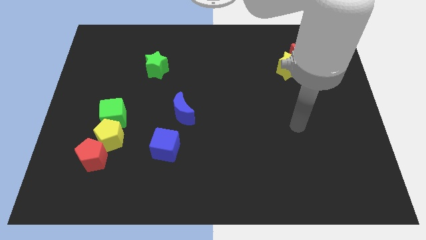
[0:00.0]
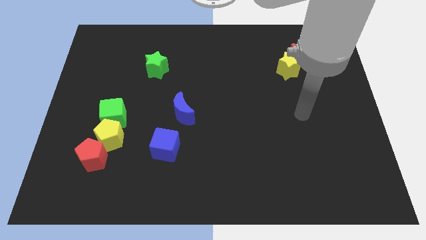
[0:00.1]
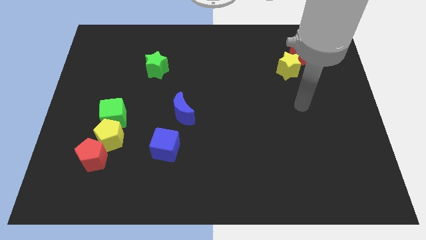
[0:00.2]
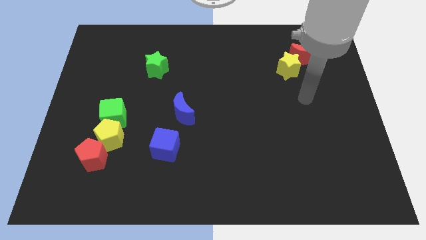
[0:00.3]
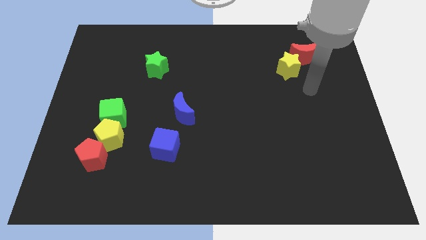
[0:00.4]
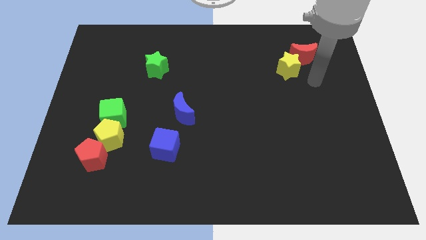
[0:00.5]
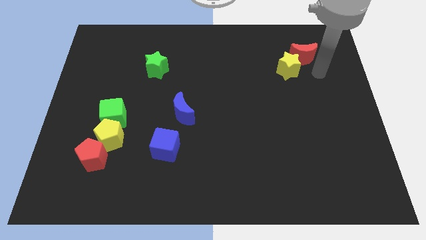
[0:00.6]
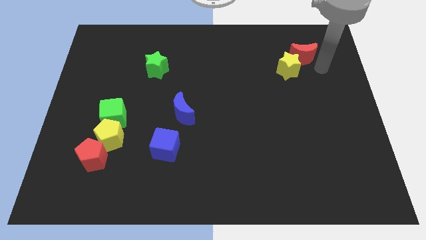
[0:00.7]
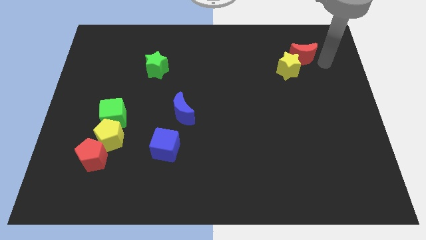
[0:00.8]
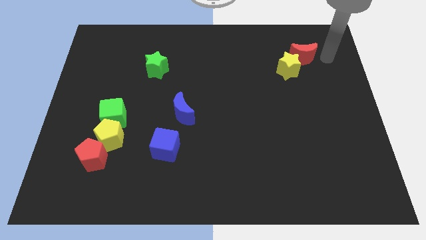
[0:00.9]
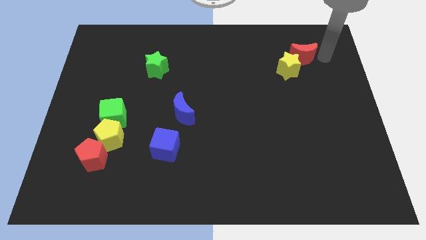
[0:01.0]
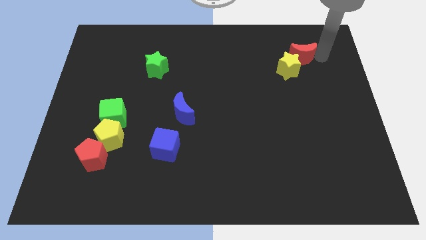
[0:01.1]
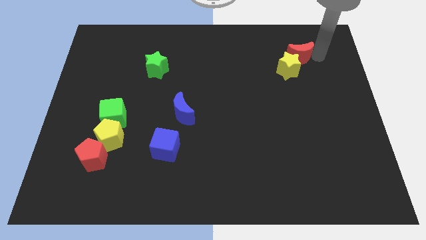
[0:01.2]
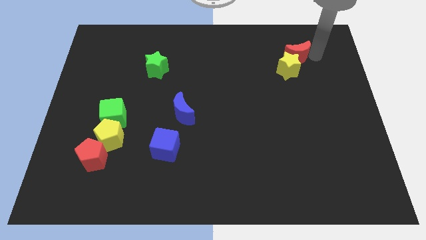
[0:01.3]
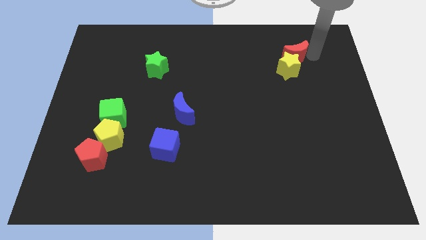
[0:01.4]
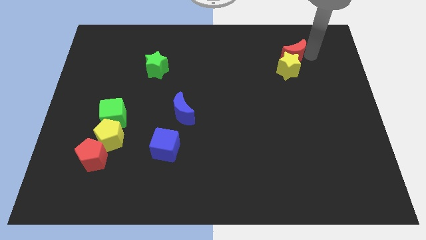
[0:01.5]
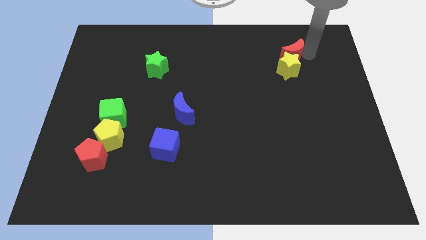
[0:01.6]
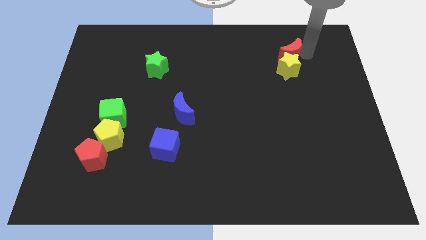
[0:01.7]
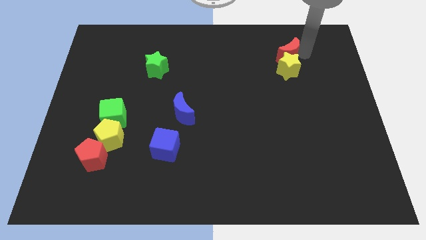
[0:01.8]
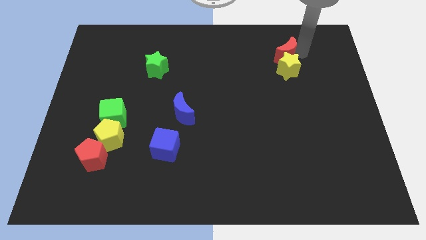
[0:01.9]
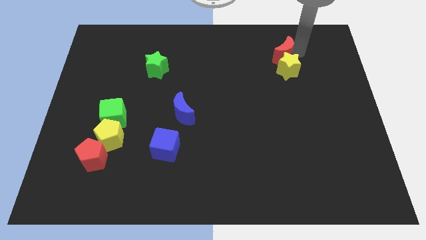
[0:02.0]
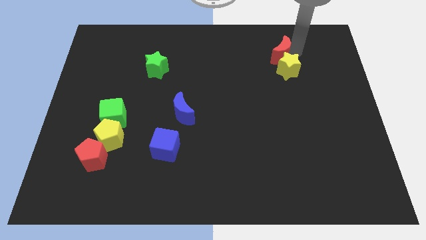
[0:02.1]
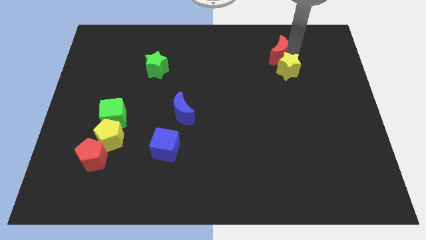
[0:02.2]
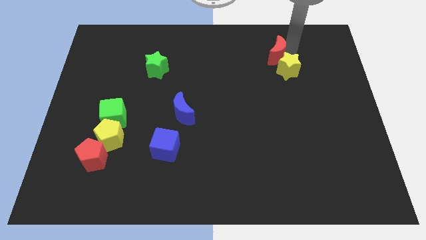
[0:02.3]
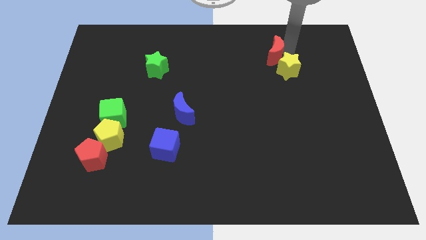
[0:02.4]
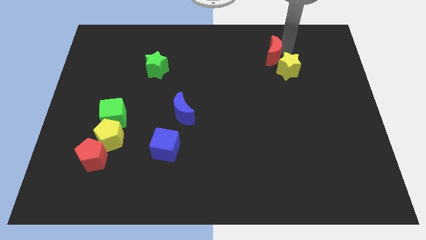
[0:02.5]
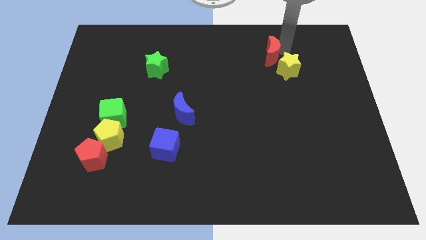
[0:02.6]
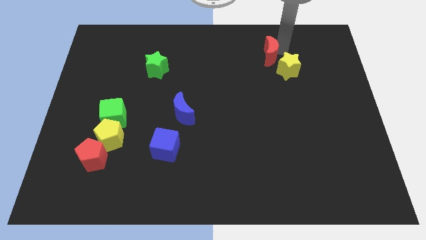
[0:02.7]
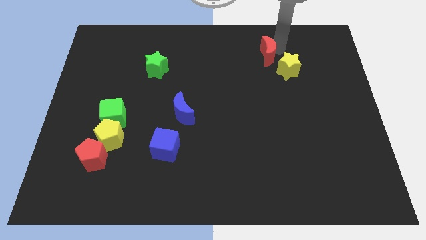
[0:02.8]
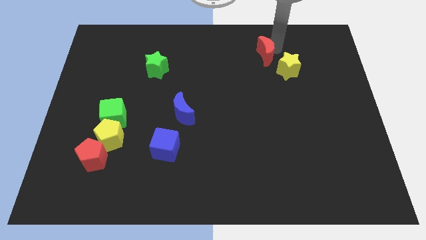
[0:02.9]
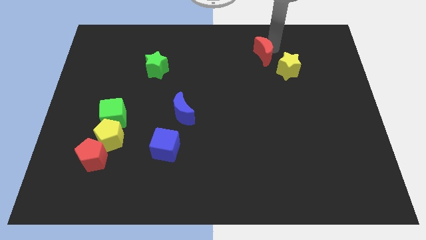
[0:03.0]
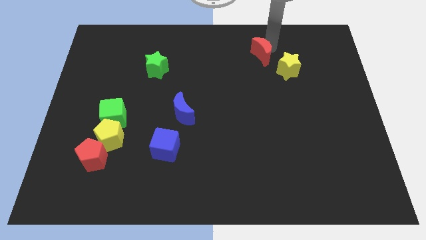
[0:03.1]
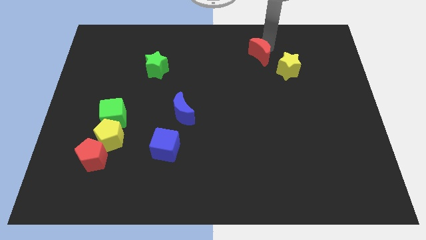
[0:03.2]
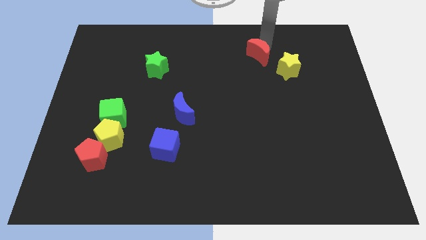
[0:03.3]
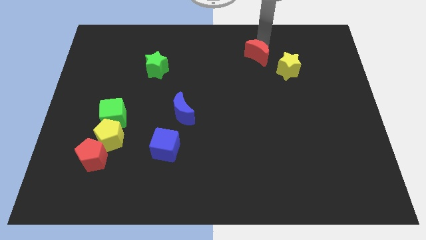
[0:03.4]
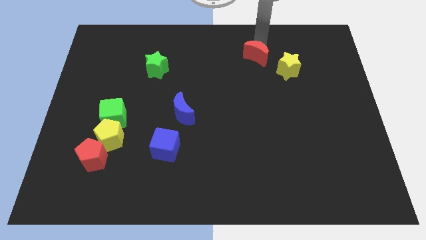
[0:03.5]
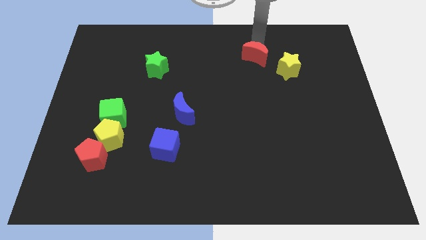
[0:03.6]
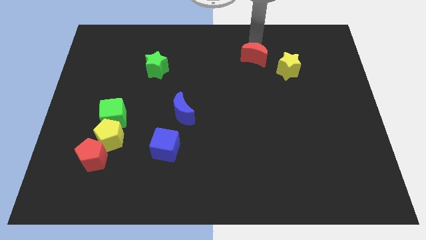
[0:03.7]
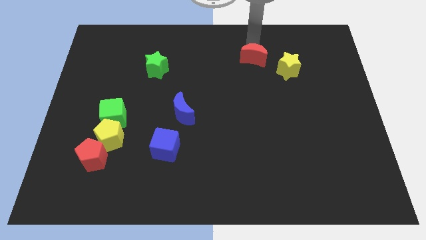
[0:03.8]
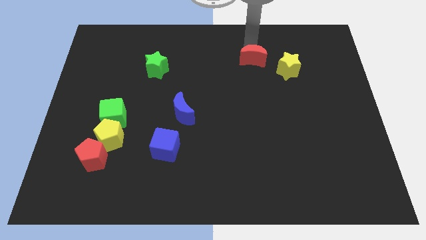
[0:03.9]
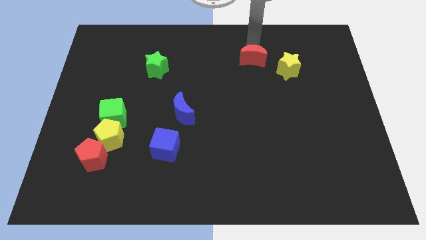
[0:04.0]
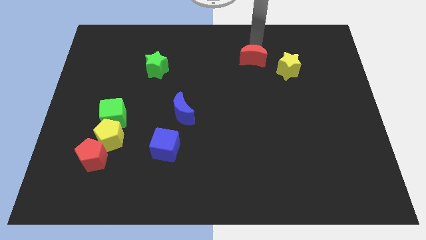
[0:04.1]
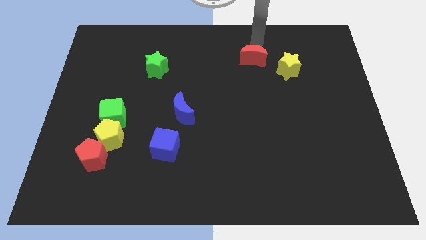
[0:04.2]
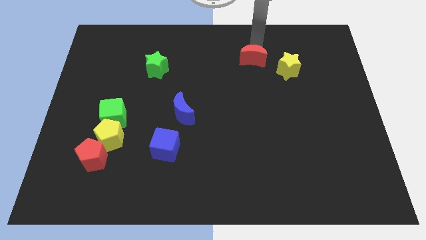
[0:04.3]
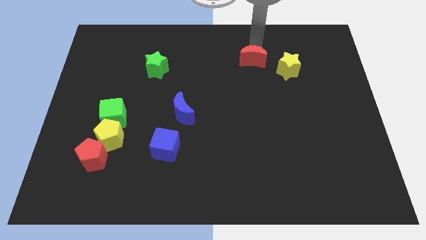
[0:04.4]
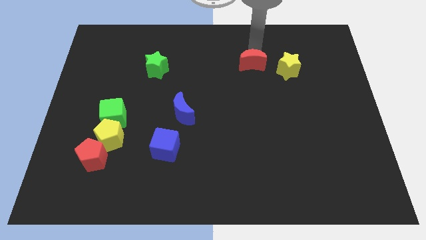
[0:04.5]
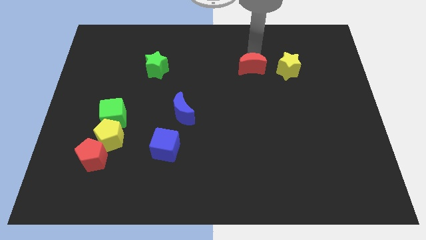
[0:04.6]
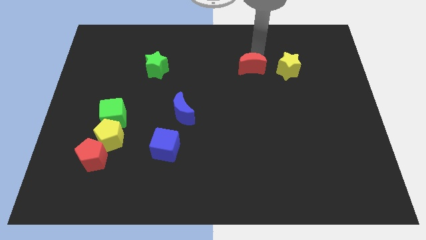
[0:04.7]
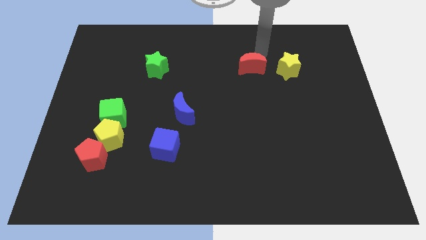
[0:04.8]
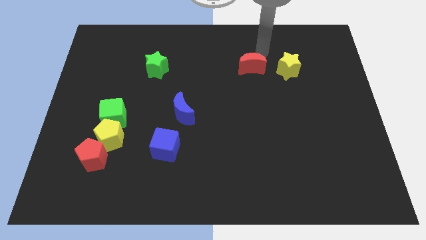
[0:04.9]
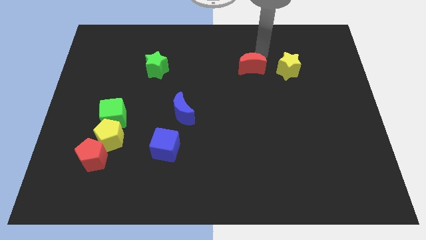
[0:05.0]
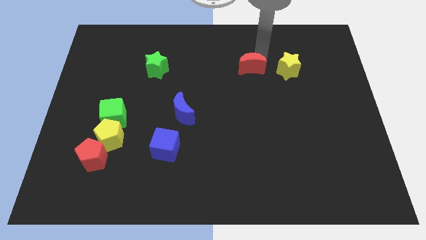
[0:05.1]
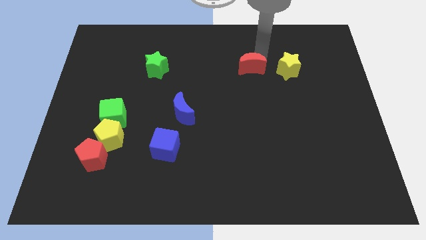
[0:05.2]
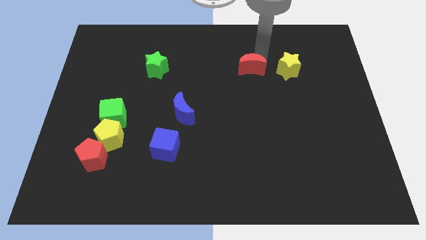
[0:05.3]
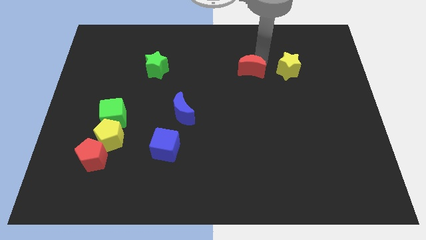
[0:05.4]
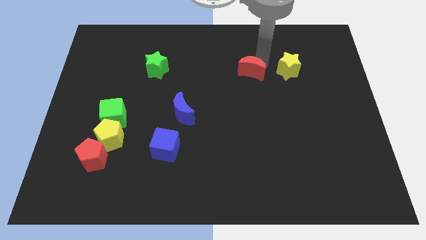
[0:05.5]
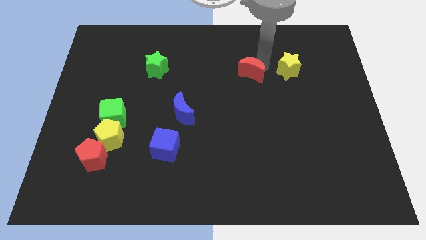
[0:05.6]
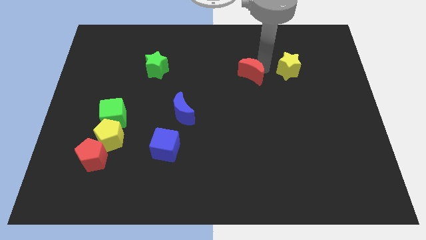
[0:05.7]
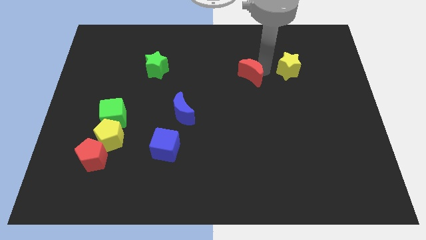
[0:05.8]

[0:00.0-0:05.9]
push the red moon to the center of the board
